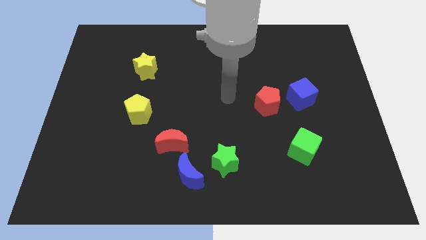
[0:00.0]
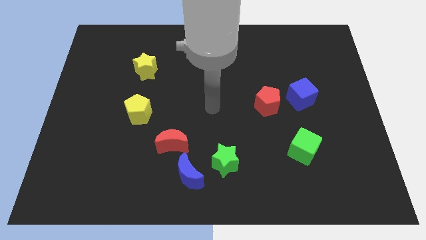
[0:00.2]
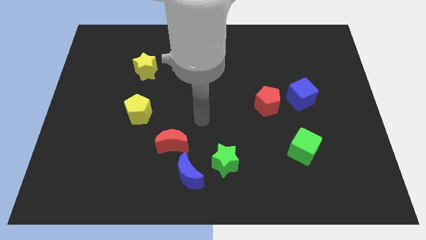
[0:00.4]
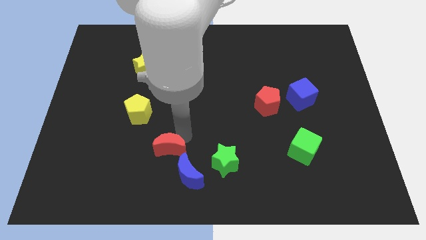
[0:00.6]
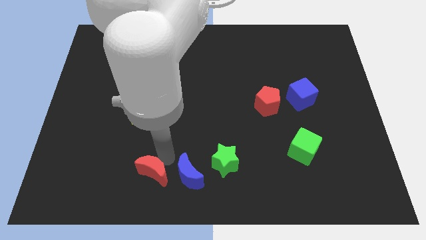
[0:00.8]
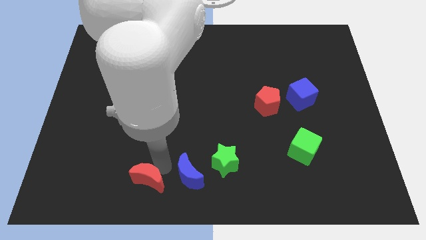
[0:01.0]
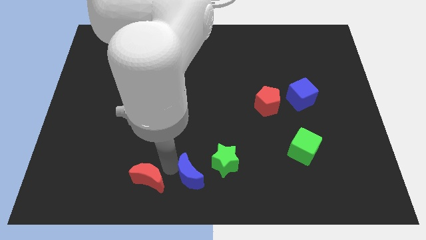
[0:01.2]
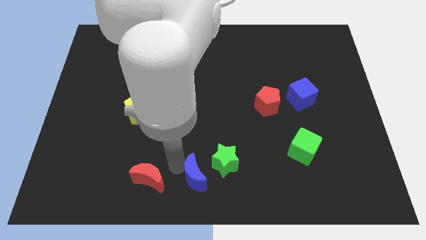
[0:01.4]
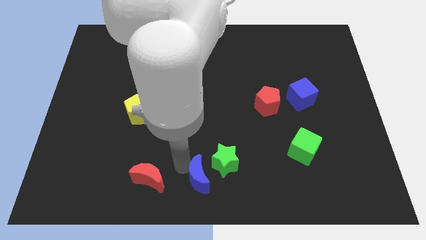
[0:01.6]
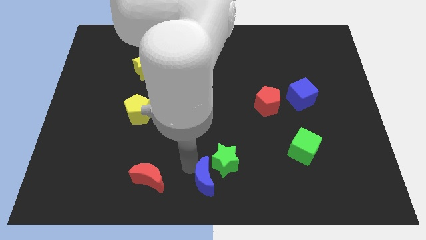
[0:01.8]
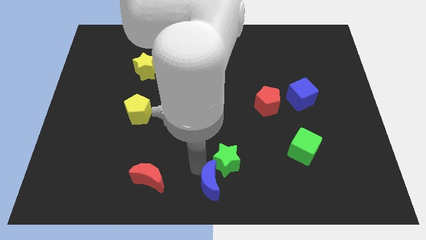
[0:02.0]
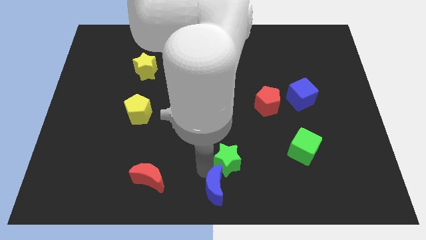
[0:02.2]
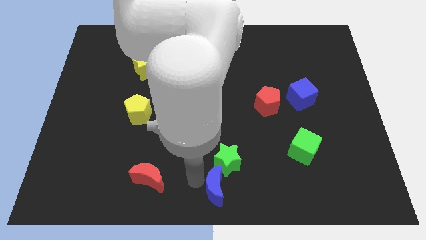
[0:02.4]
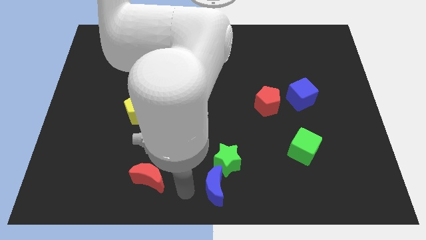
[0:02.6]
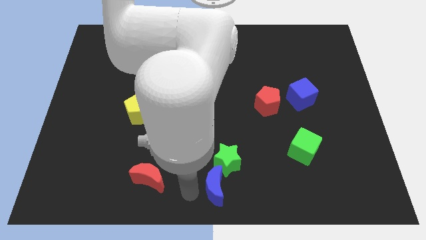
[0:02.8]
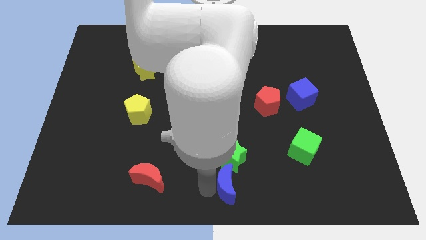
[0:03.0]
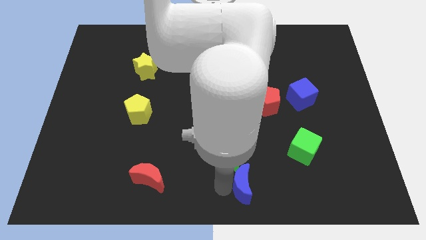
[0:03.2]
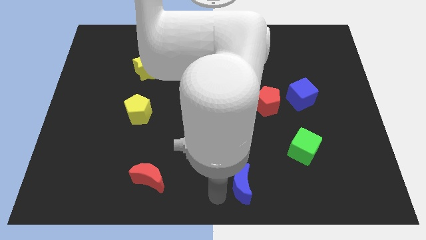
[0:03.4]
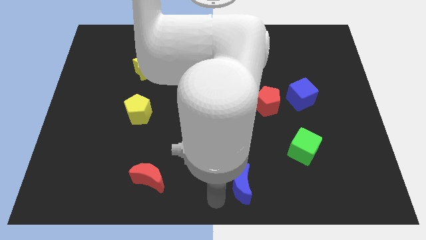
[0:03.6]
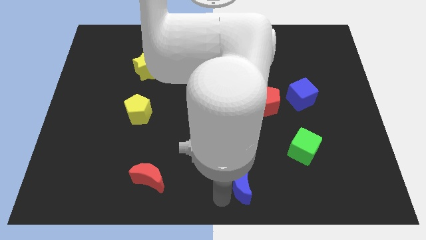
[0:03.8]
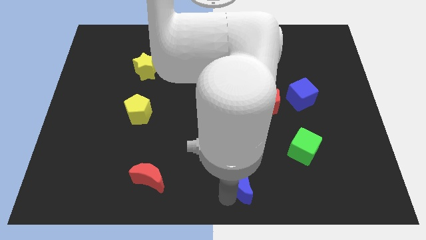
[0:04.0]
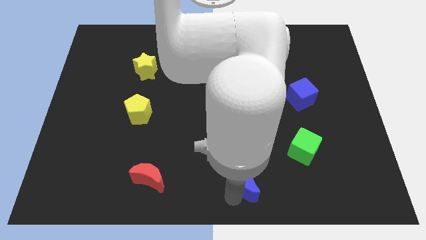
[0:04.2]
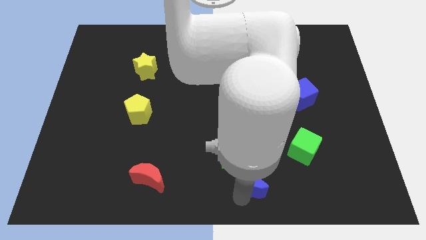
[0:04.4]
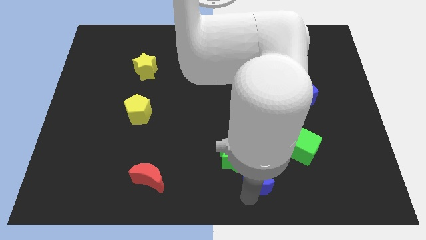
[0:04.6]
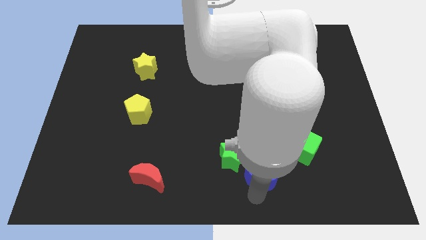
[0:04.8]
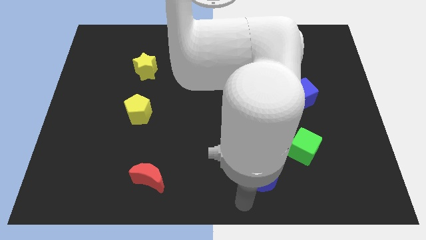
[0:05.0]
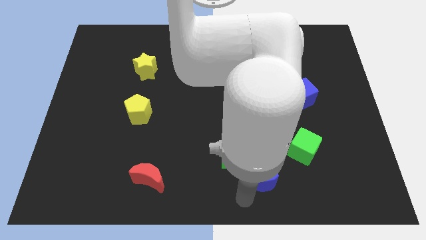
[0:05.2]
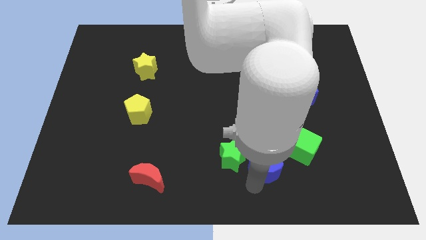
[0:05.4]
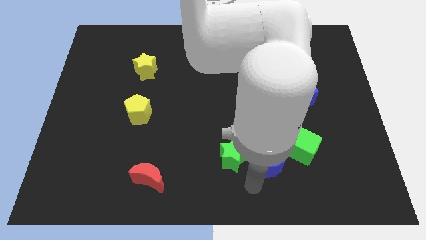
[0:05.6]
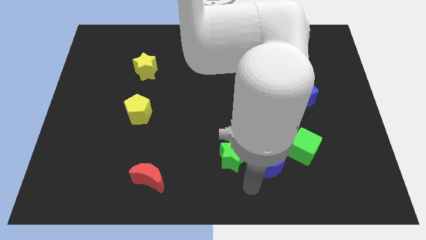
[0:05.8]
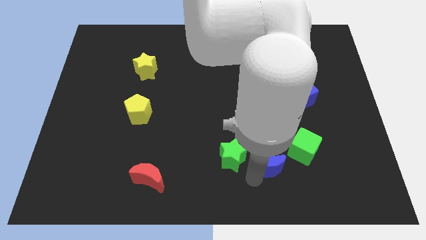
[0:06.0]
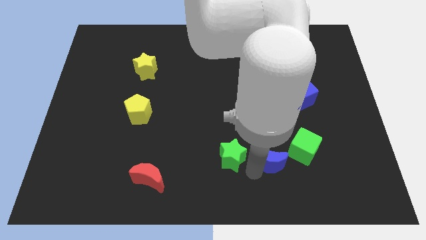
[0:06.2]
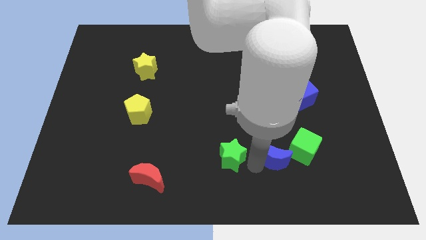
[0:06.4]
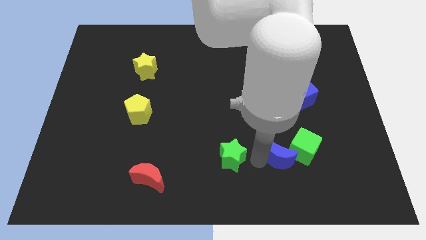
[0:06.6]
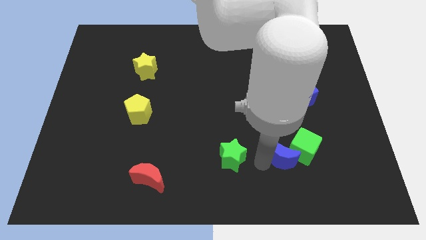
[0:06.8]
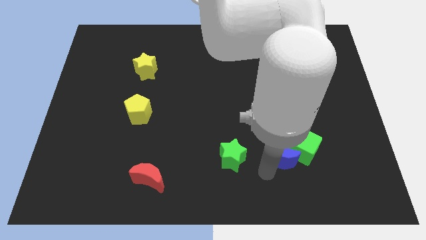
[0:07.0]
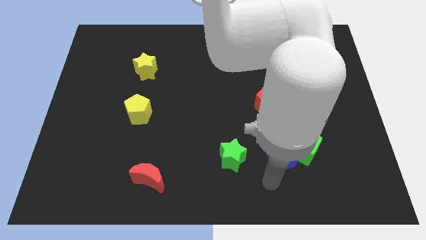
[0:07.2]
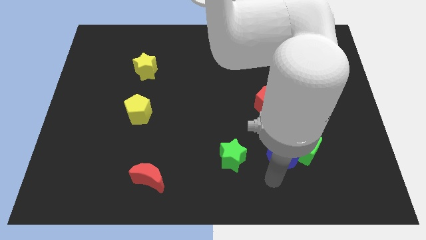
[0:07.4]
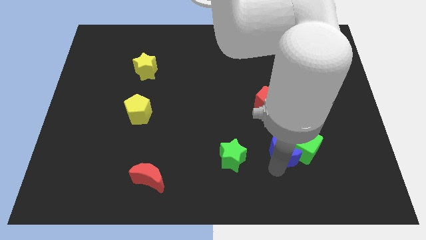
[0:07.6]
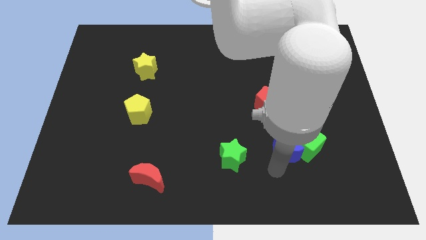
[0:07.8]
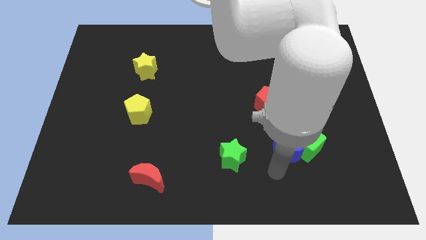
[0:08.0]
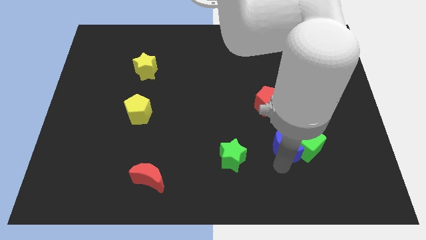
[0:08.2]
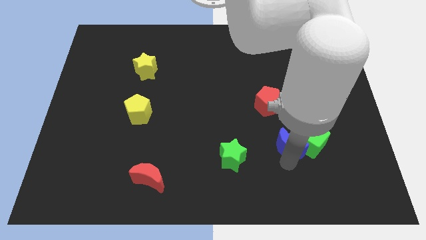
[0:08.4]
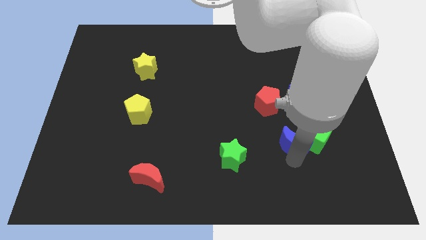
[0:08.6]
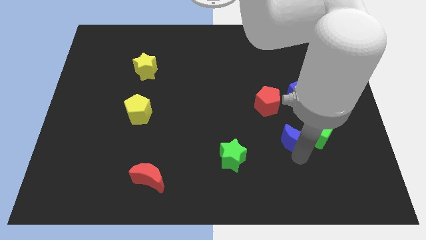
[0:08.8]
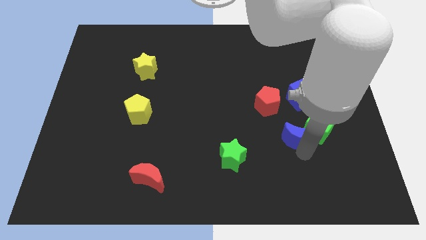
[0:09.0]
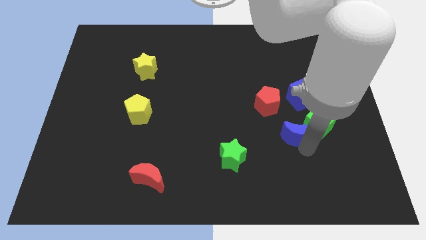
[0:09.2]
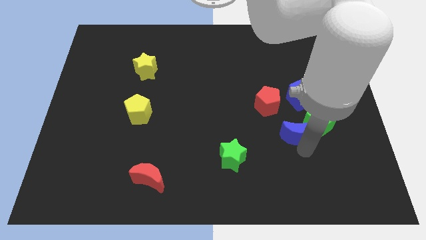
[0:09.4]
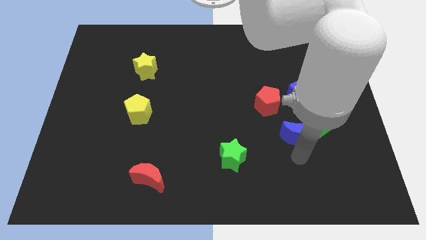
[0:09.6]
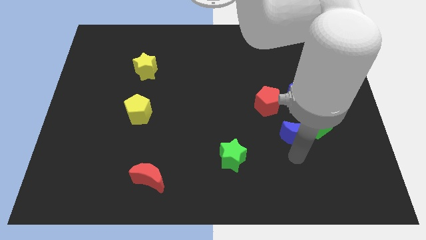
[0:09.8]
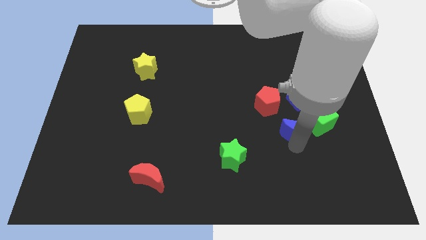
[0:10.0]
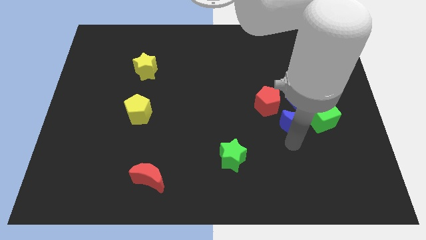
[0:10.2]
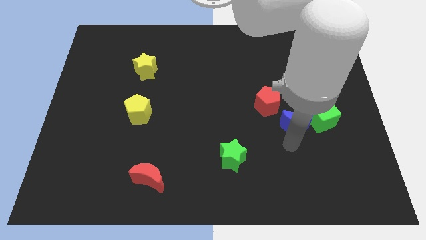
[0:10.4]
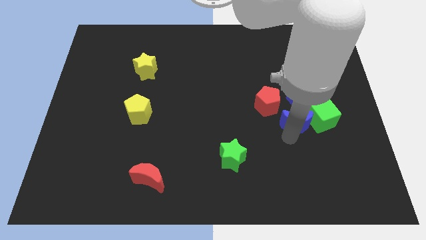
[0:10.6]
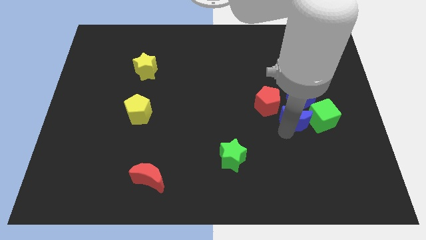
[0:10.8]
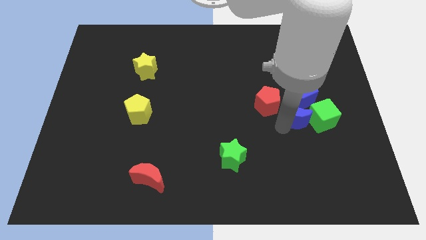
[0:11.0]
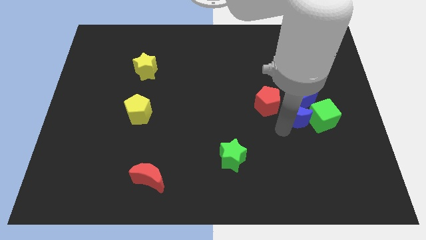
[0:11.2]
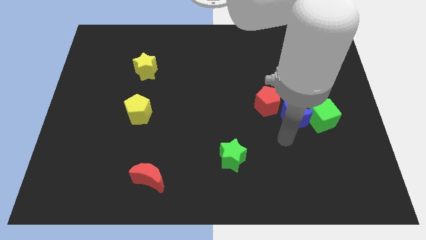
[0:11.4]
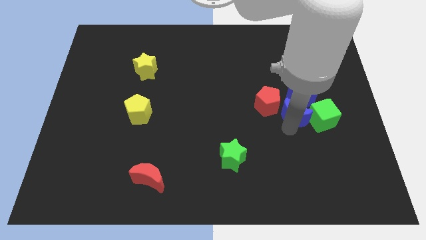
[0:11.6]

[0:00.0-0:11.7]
slide the blue moon to the blue cube

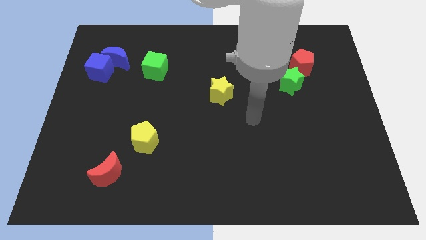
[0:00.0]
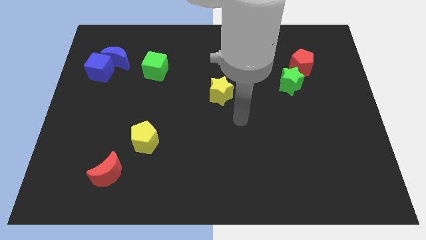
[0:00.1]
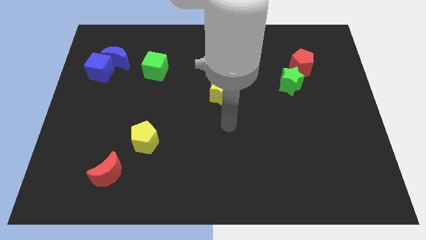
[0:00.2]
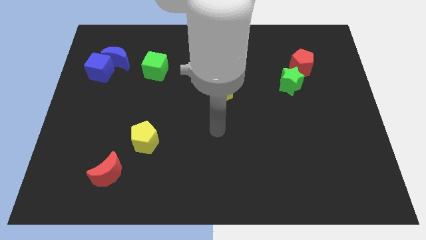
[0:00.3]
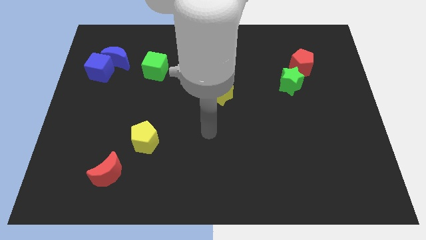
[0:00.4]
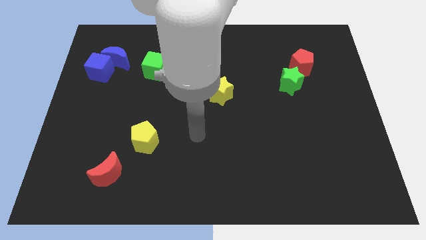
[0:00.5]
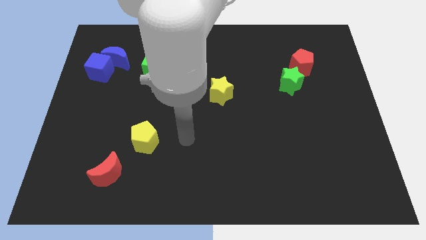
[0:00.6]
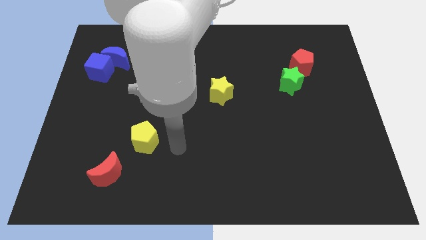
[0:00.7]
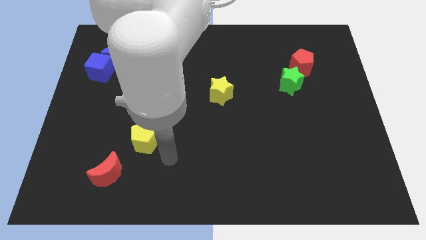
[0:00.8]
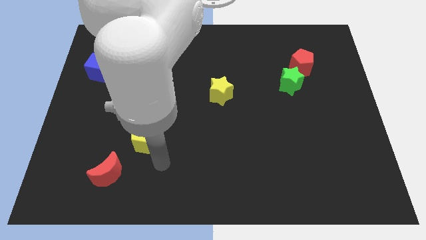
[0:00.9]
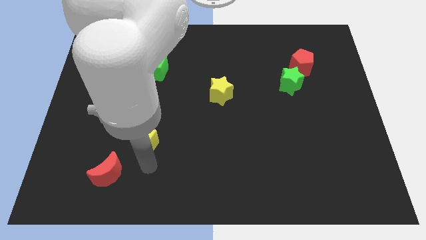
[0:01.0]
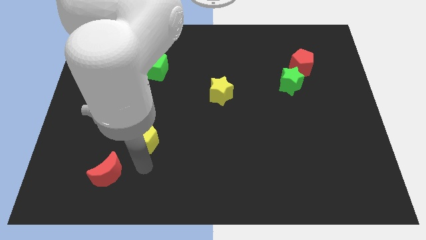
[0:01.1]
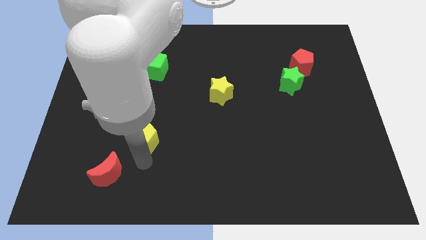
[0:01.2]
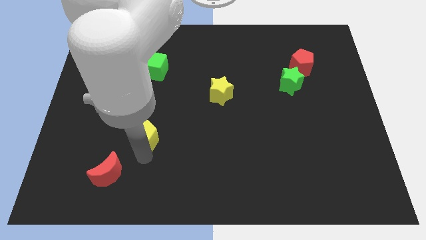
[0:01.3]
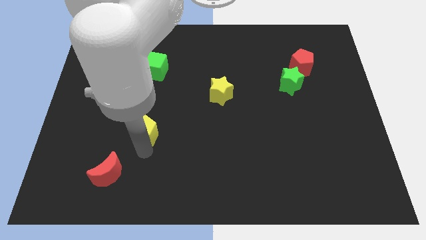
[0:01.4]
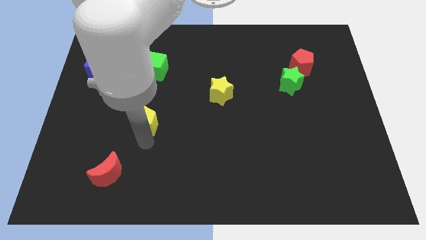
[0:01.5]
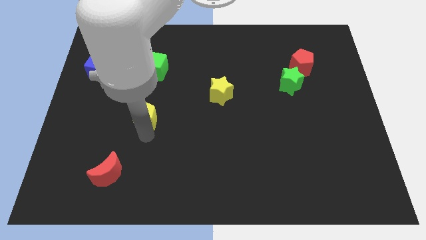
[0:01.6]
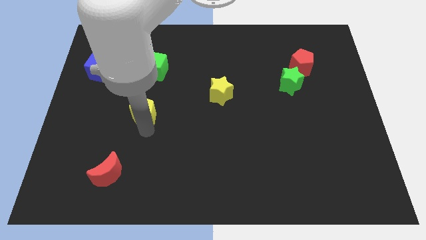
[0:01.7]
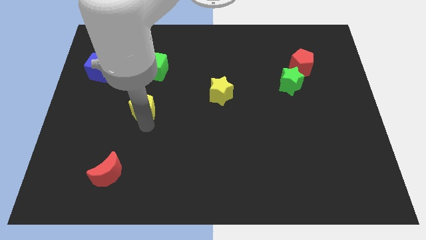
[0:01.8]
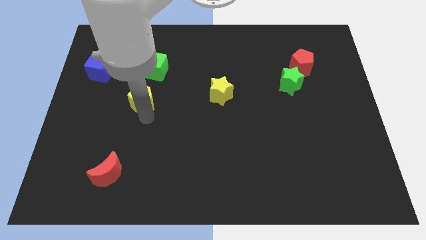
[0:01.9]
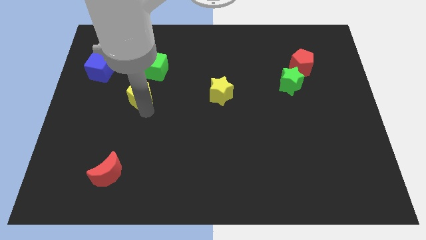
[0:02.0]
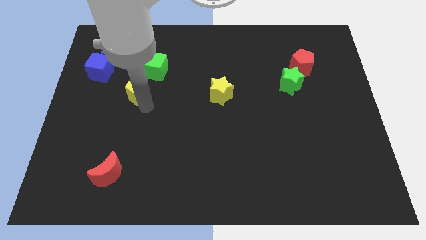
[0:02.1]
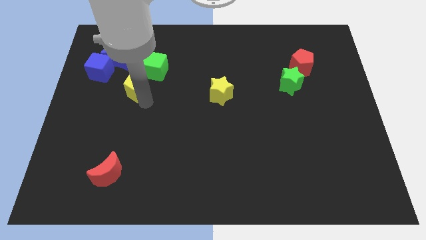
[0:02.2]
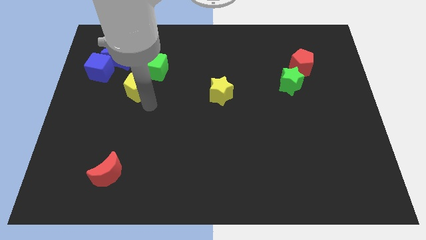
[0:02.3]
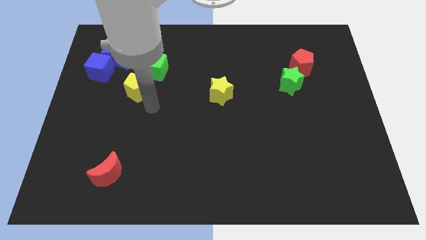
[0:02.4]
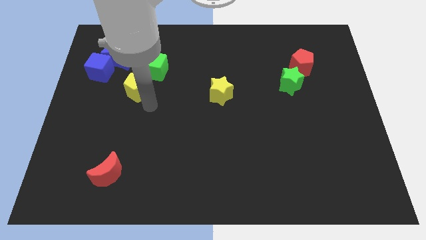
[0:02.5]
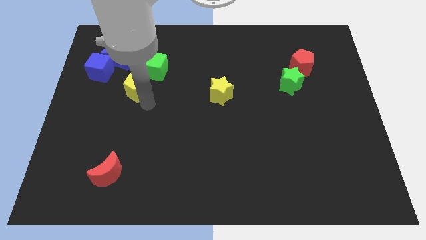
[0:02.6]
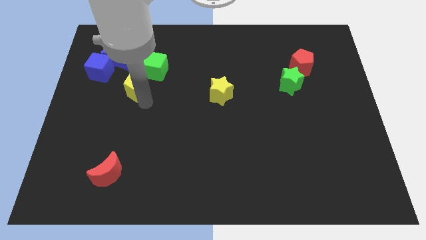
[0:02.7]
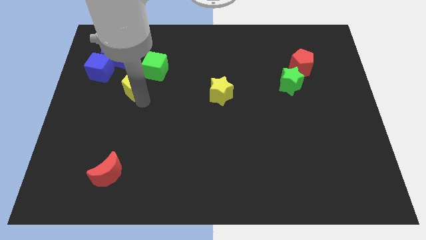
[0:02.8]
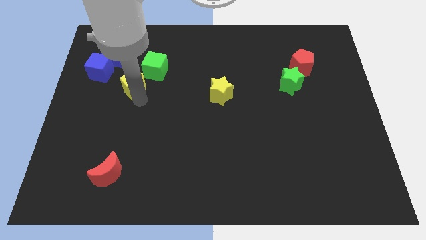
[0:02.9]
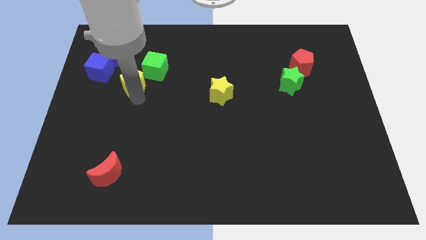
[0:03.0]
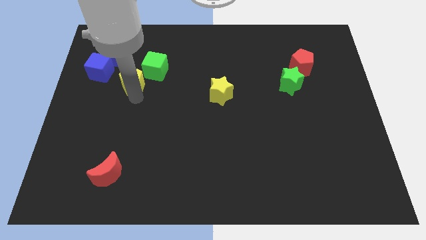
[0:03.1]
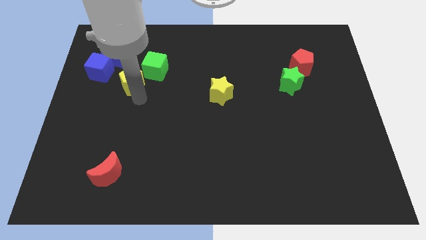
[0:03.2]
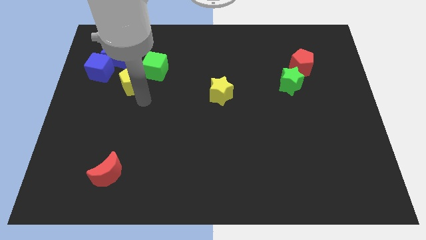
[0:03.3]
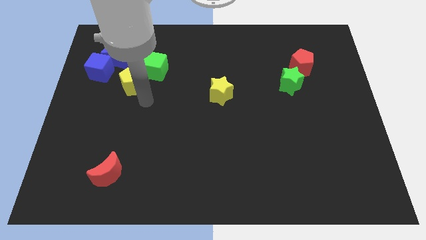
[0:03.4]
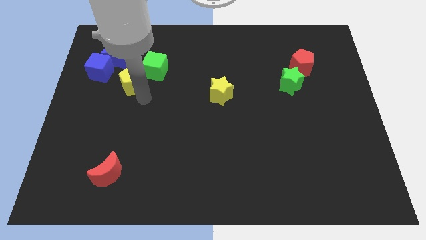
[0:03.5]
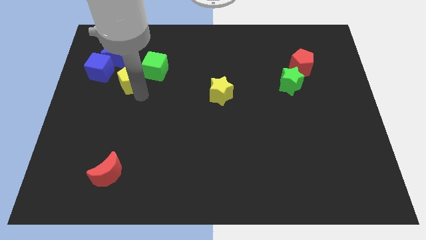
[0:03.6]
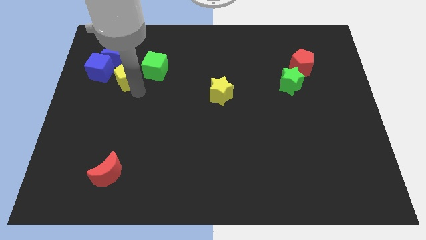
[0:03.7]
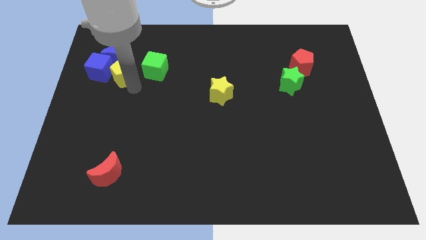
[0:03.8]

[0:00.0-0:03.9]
slide the yellow pentagon close to the blue moon
